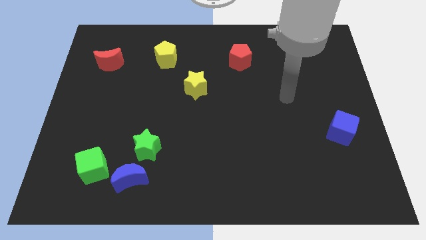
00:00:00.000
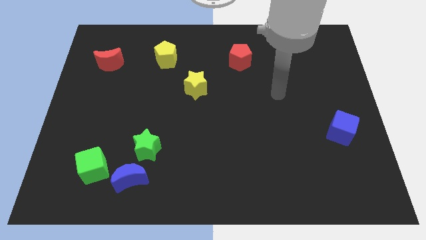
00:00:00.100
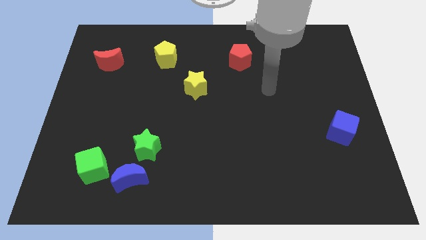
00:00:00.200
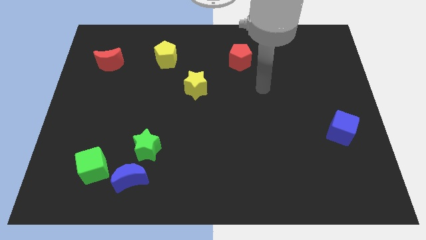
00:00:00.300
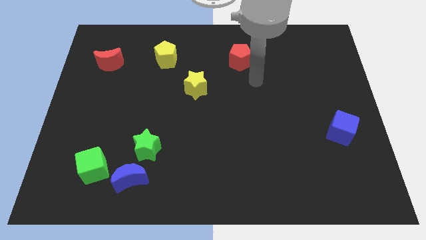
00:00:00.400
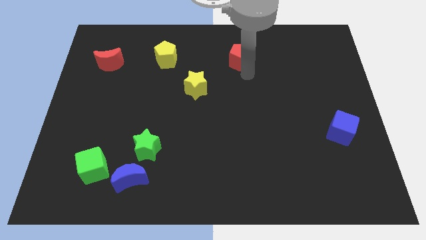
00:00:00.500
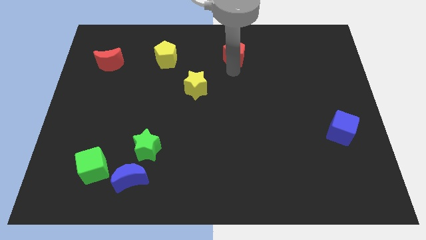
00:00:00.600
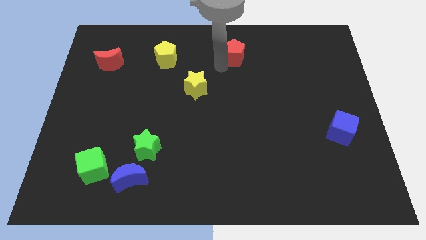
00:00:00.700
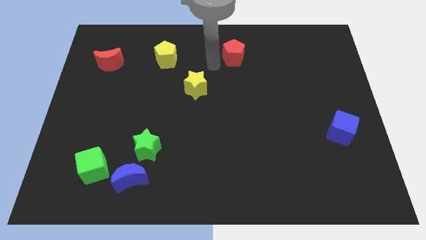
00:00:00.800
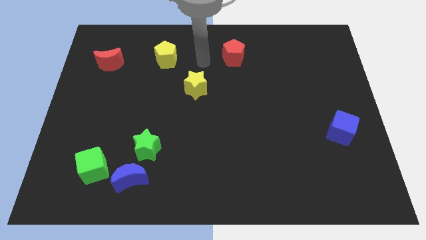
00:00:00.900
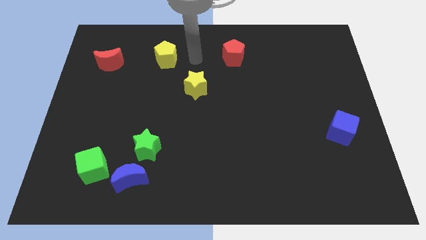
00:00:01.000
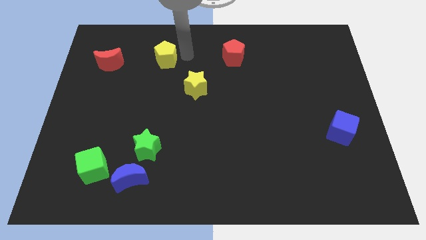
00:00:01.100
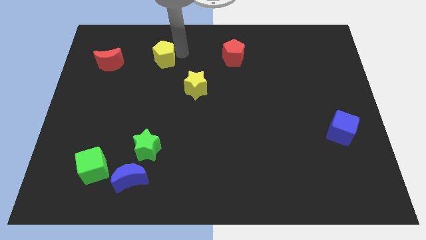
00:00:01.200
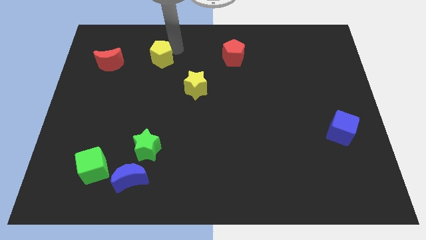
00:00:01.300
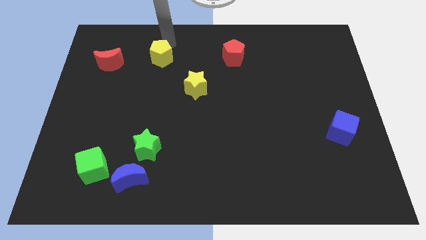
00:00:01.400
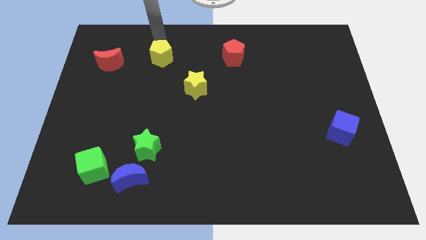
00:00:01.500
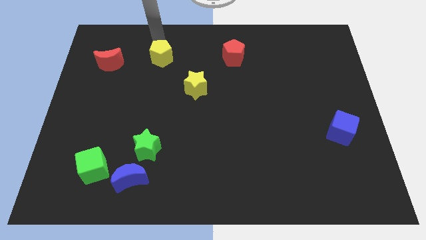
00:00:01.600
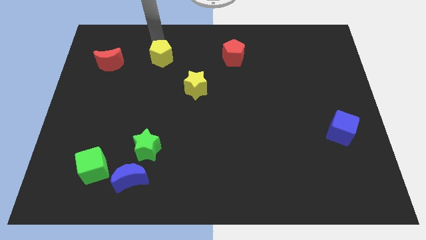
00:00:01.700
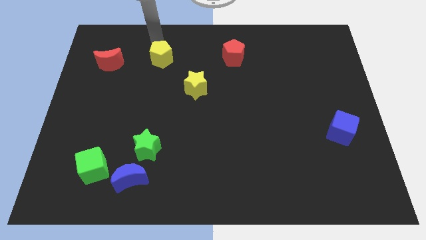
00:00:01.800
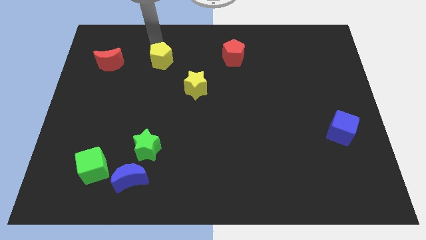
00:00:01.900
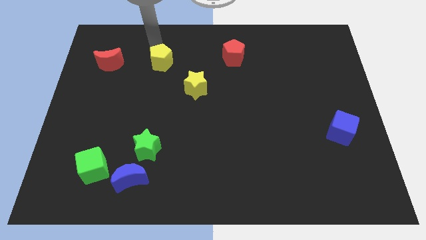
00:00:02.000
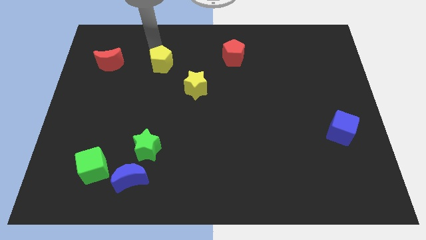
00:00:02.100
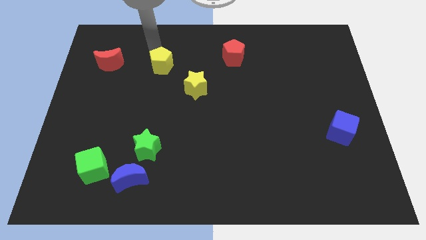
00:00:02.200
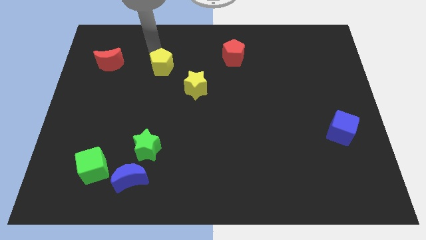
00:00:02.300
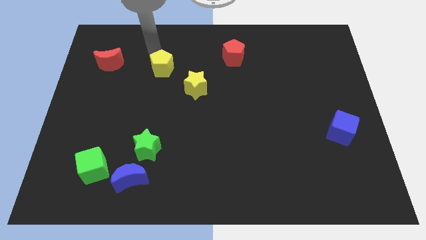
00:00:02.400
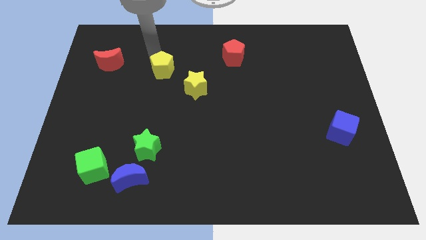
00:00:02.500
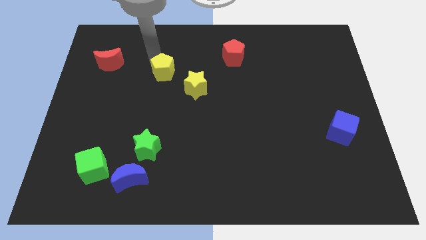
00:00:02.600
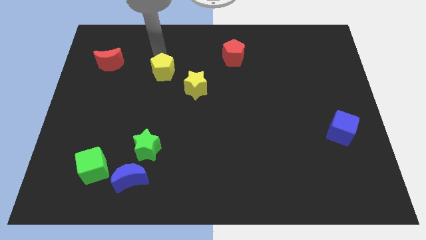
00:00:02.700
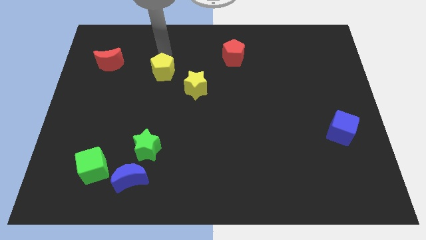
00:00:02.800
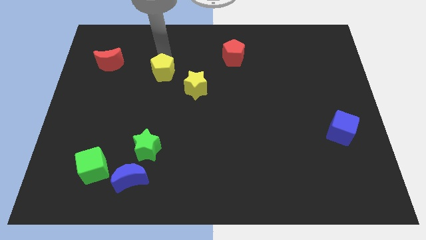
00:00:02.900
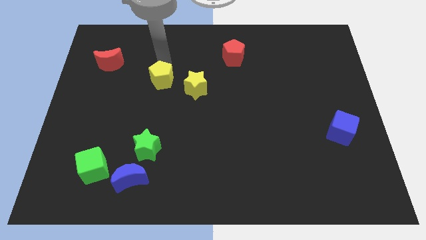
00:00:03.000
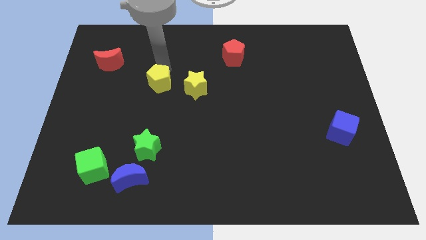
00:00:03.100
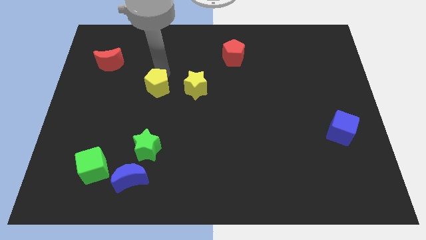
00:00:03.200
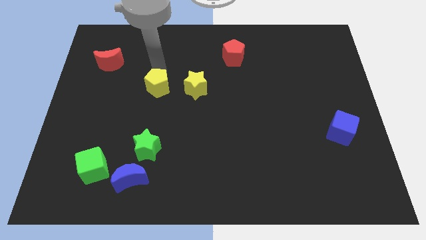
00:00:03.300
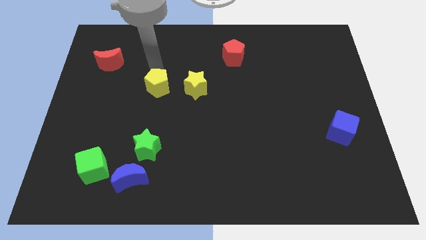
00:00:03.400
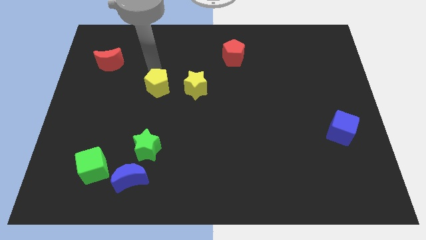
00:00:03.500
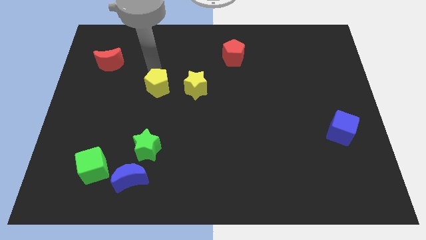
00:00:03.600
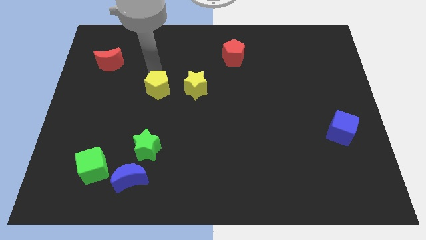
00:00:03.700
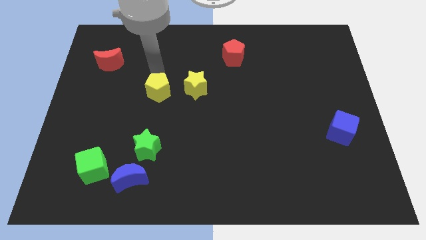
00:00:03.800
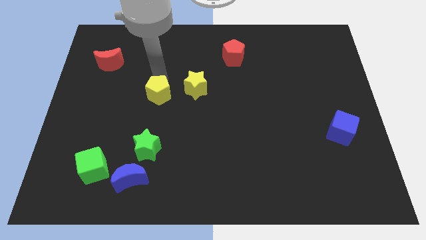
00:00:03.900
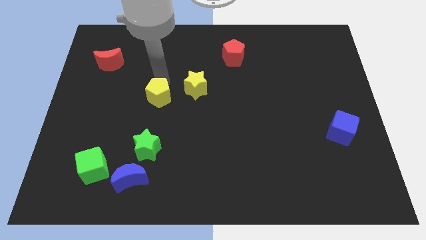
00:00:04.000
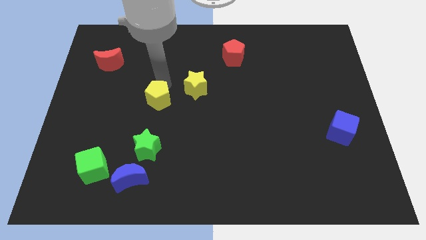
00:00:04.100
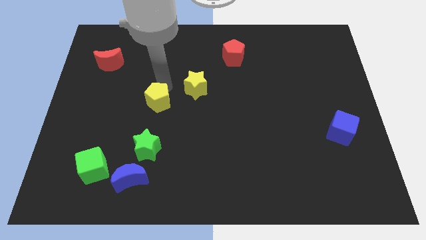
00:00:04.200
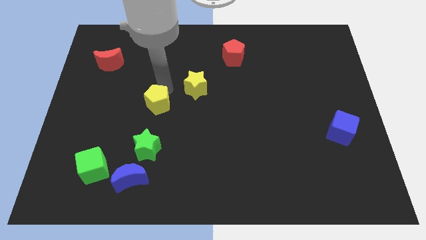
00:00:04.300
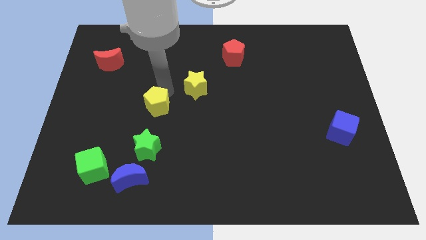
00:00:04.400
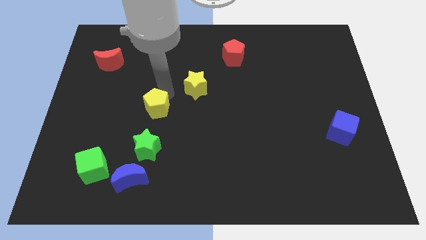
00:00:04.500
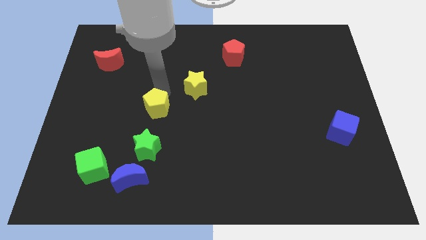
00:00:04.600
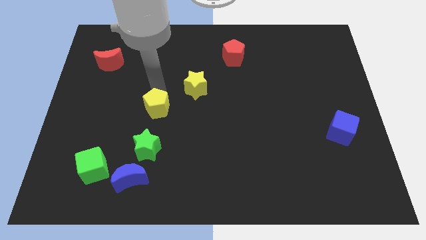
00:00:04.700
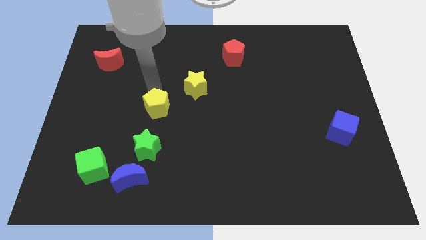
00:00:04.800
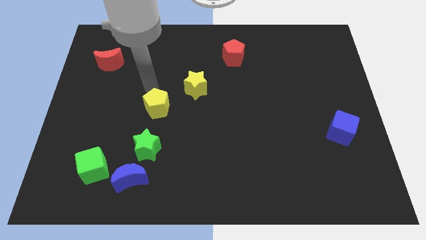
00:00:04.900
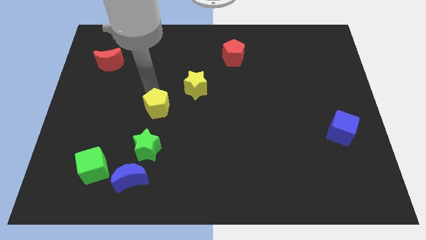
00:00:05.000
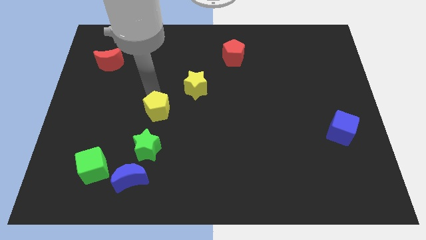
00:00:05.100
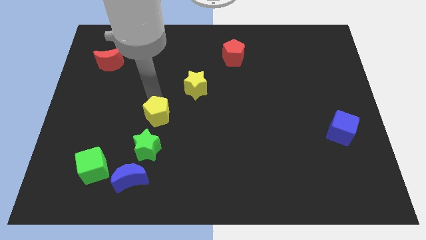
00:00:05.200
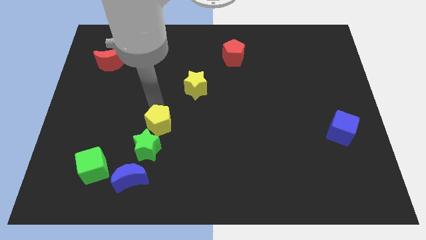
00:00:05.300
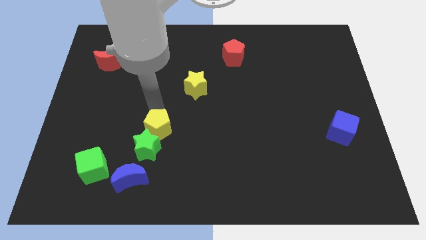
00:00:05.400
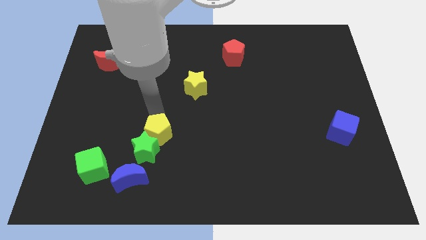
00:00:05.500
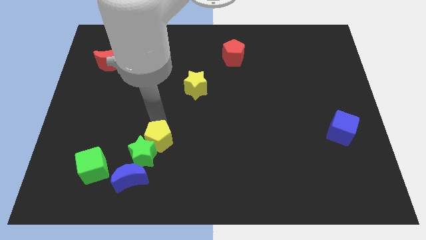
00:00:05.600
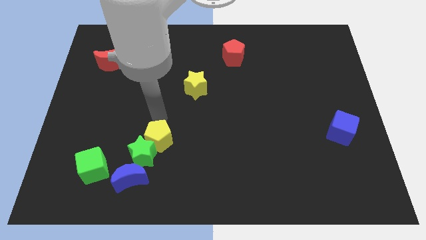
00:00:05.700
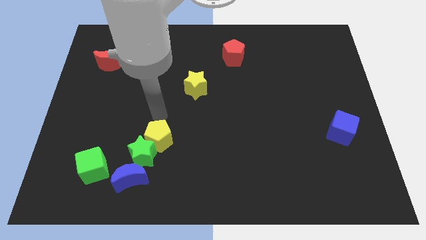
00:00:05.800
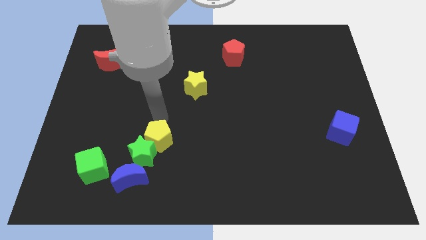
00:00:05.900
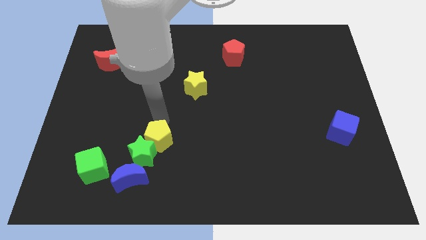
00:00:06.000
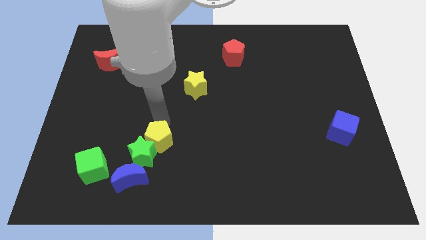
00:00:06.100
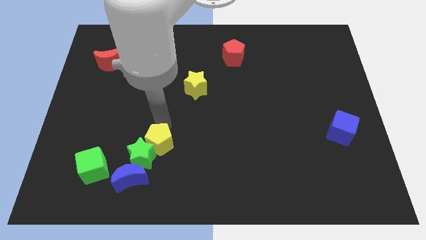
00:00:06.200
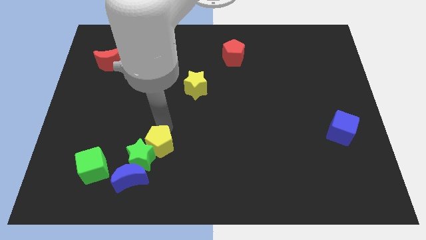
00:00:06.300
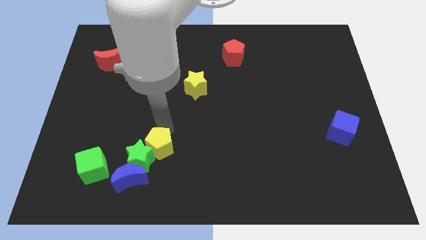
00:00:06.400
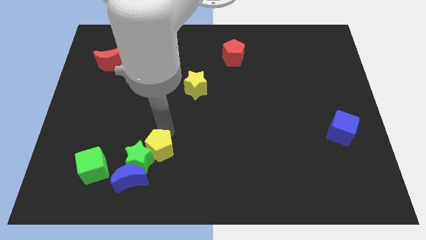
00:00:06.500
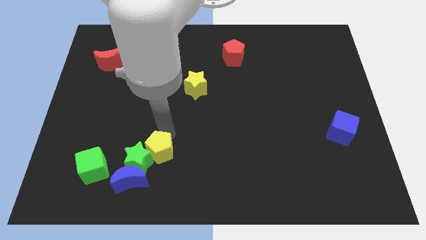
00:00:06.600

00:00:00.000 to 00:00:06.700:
put the yellow pentagon to the right side of the green cube

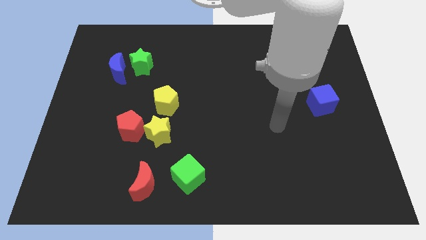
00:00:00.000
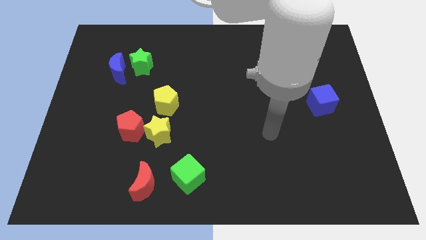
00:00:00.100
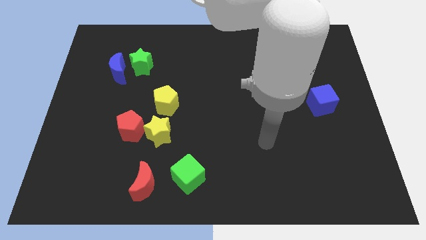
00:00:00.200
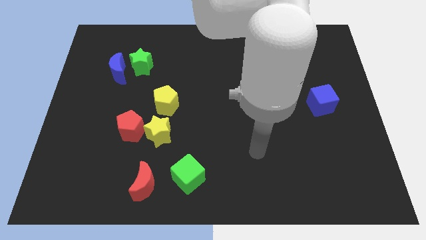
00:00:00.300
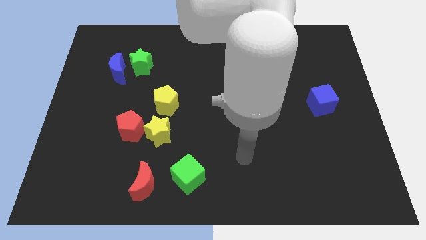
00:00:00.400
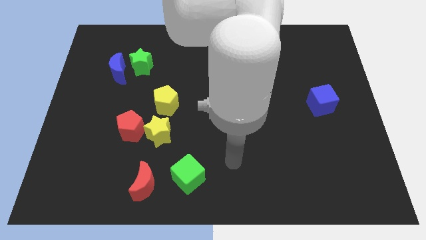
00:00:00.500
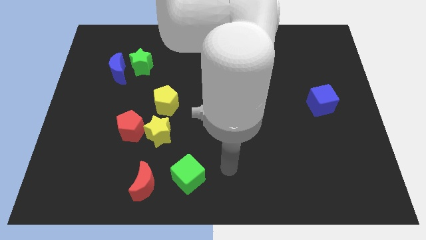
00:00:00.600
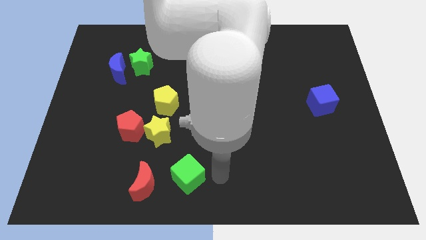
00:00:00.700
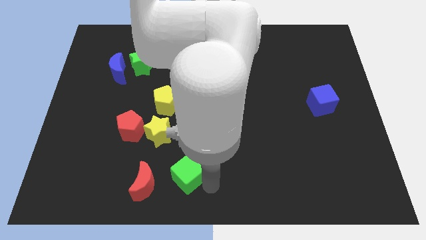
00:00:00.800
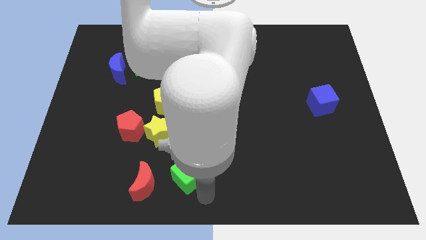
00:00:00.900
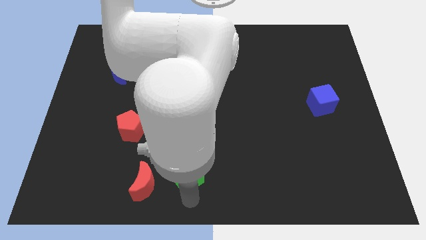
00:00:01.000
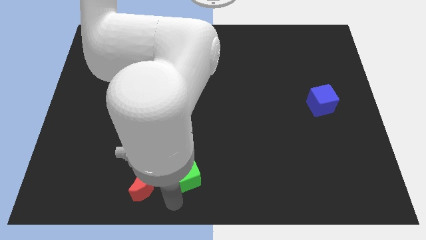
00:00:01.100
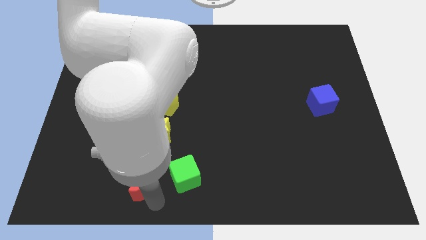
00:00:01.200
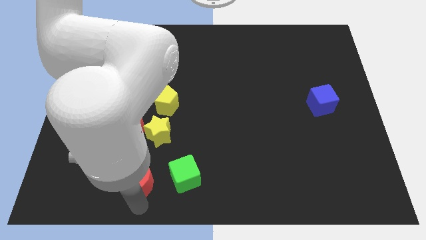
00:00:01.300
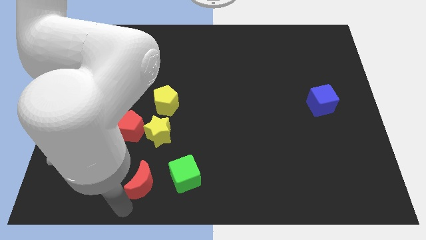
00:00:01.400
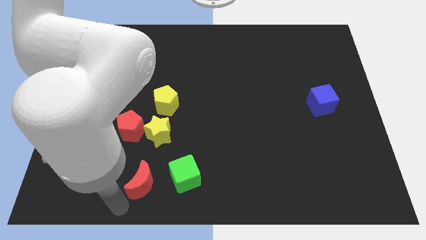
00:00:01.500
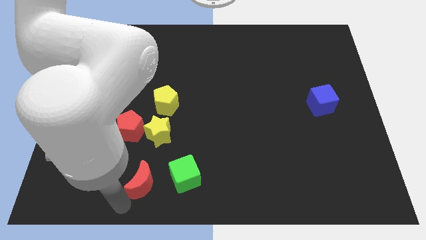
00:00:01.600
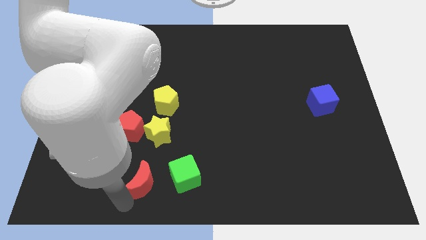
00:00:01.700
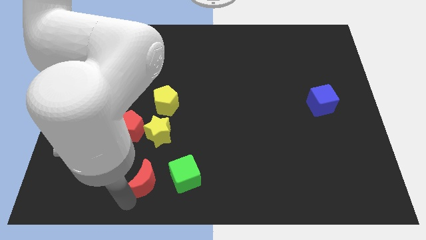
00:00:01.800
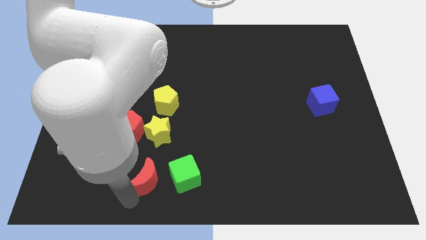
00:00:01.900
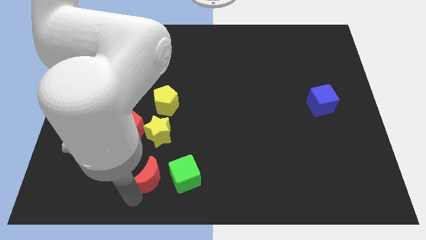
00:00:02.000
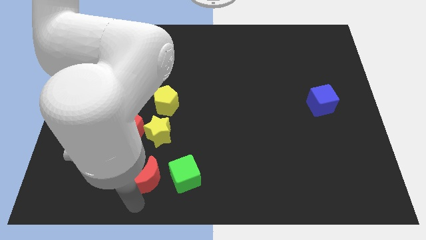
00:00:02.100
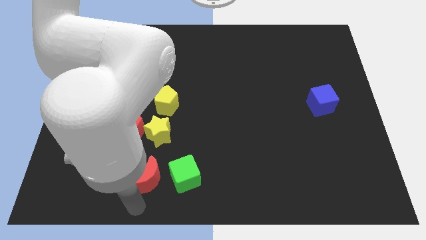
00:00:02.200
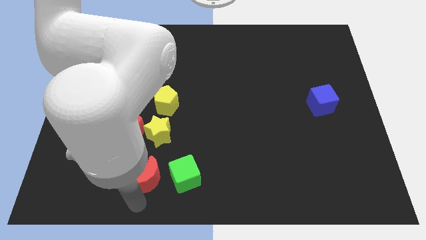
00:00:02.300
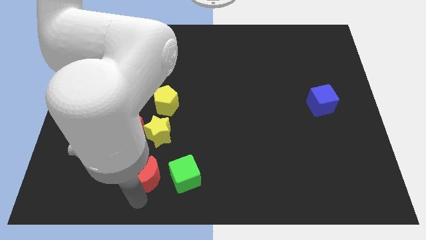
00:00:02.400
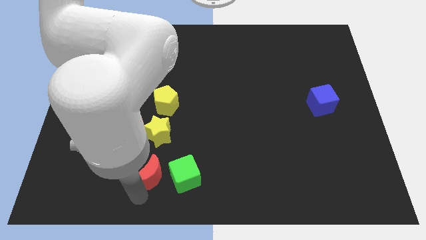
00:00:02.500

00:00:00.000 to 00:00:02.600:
push the red moon to the top left of the green cube
